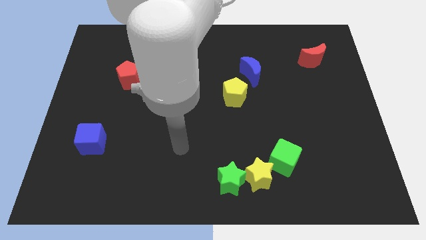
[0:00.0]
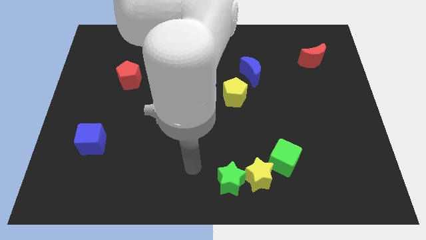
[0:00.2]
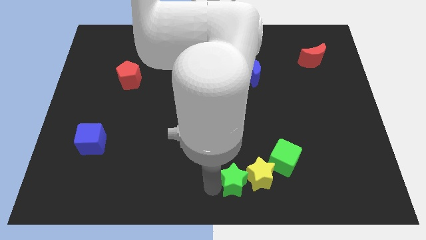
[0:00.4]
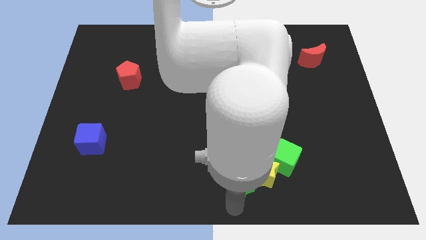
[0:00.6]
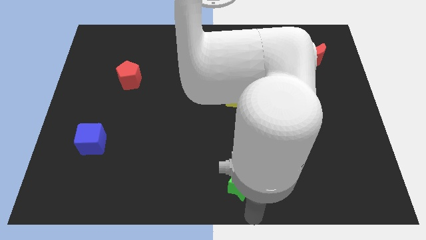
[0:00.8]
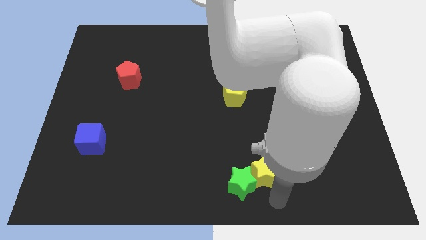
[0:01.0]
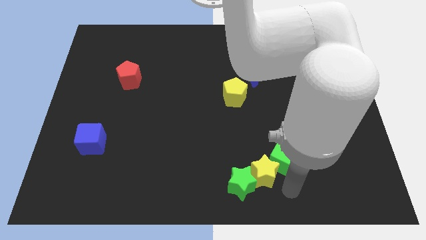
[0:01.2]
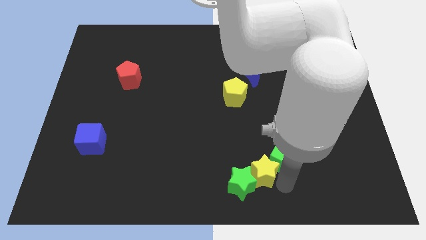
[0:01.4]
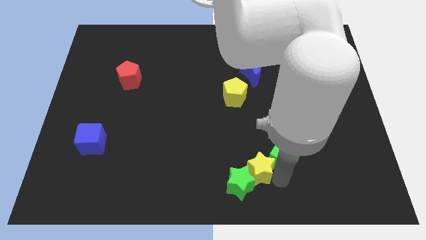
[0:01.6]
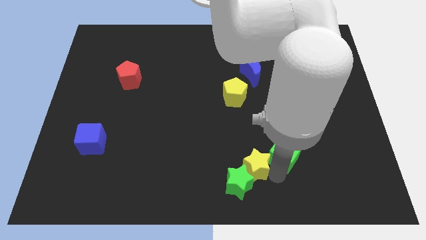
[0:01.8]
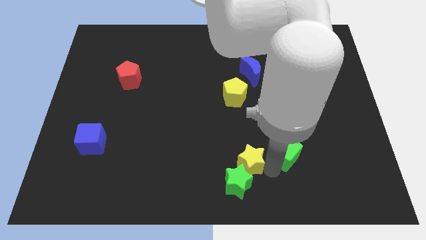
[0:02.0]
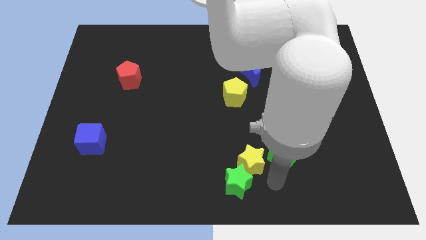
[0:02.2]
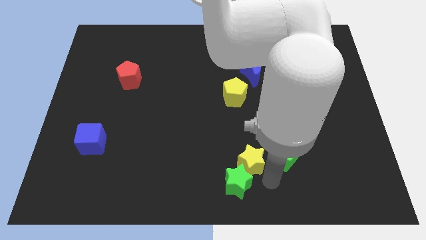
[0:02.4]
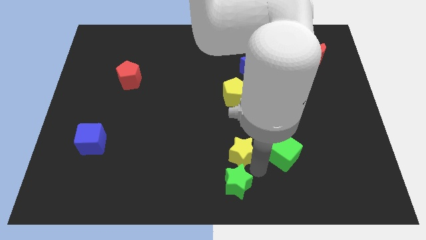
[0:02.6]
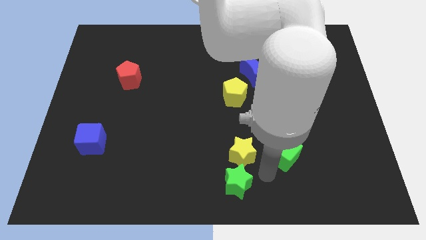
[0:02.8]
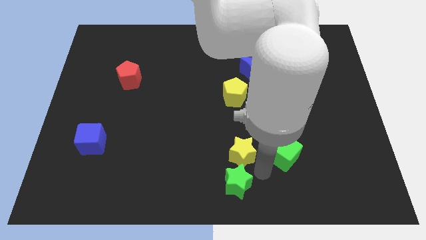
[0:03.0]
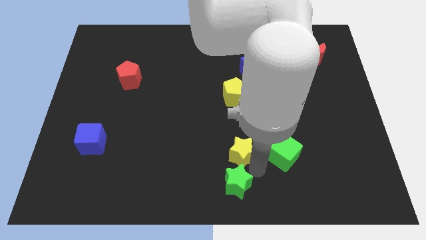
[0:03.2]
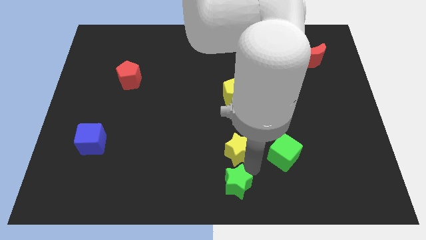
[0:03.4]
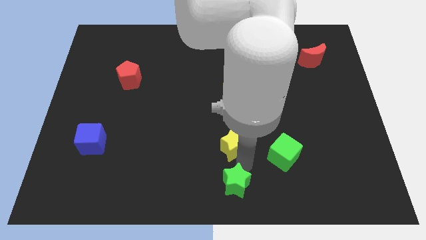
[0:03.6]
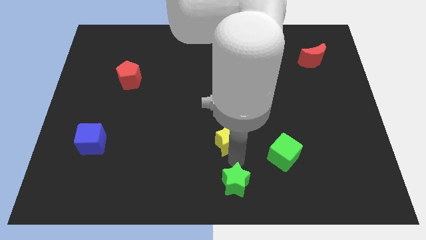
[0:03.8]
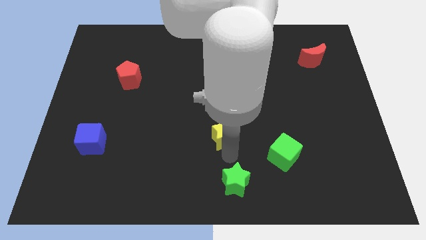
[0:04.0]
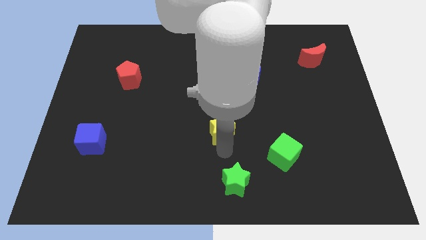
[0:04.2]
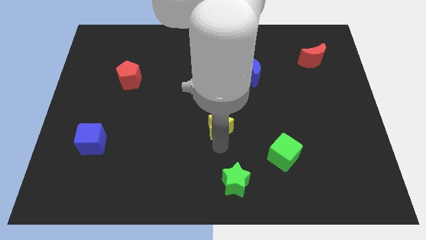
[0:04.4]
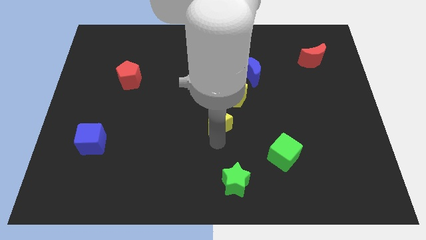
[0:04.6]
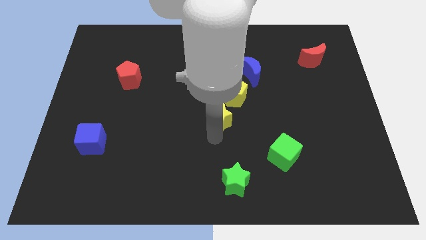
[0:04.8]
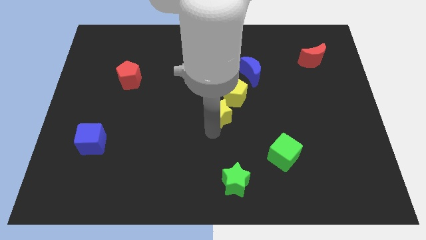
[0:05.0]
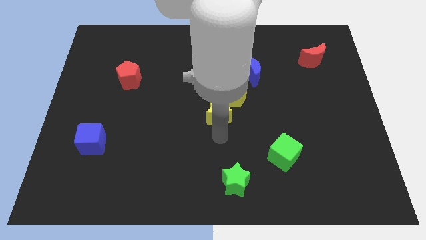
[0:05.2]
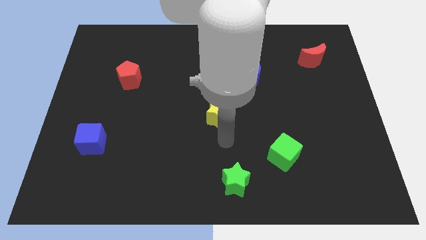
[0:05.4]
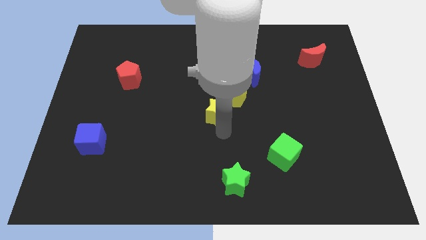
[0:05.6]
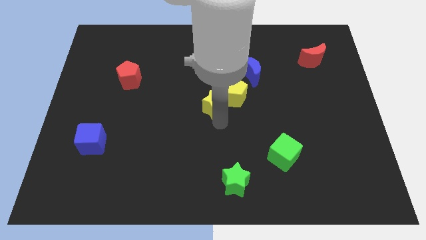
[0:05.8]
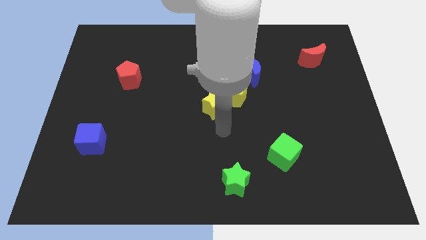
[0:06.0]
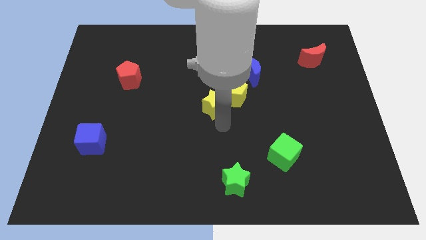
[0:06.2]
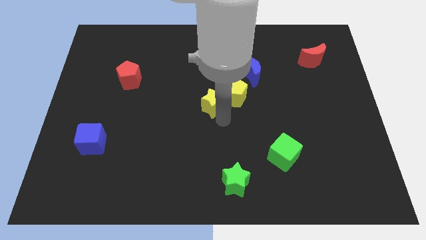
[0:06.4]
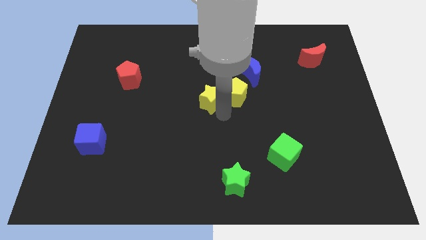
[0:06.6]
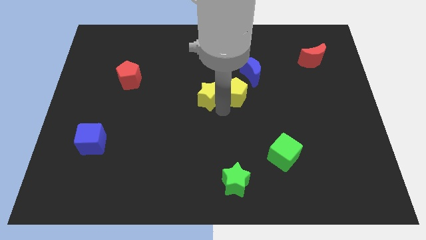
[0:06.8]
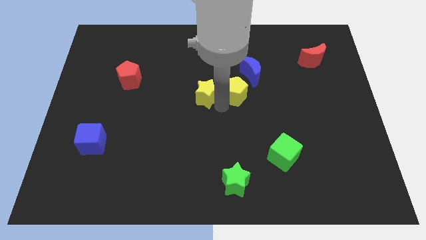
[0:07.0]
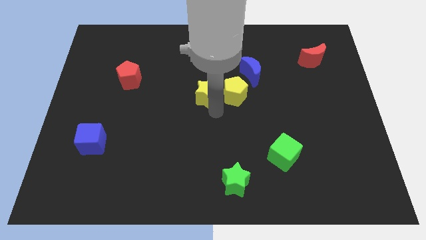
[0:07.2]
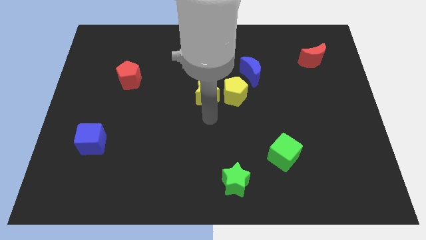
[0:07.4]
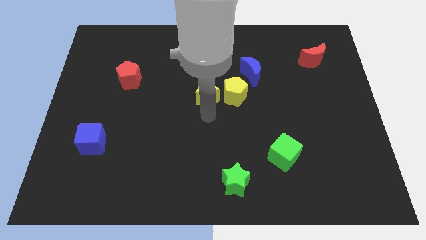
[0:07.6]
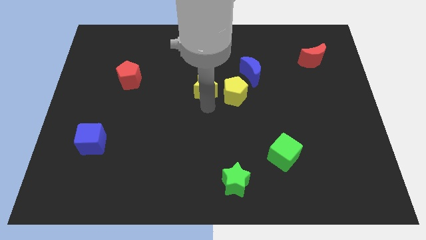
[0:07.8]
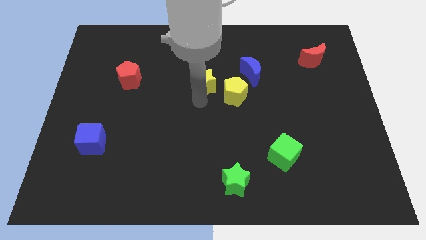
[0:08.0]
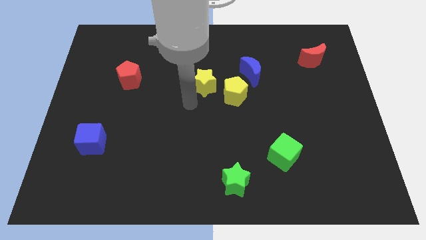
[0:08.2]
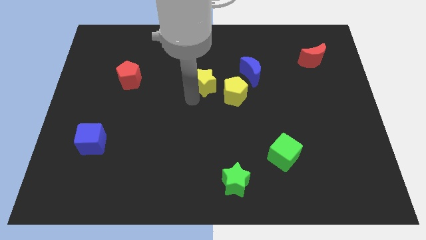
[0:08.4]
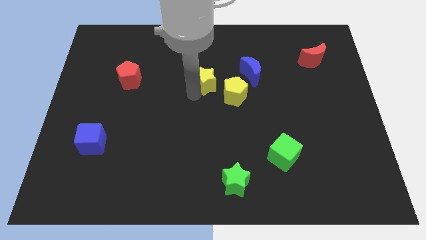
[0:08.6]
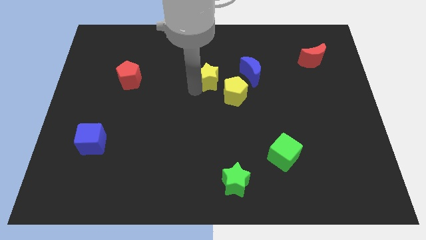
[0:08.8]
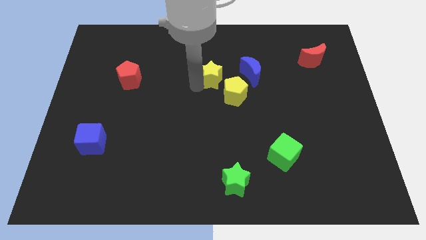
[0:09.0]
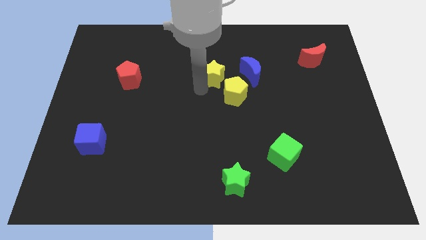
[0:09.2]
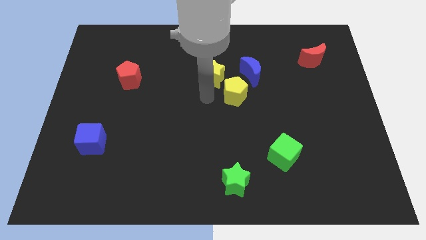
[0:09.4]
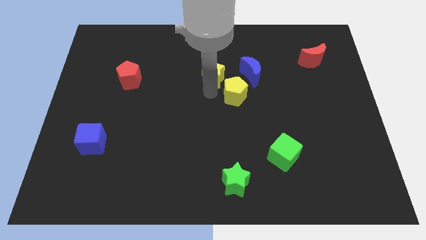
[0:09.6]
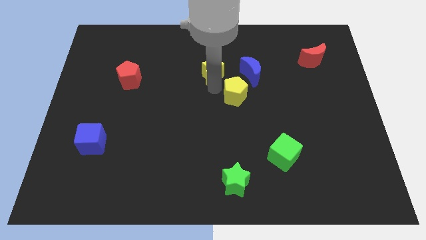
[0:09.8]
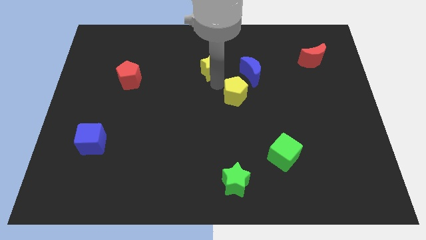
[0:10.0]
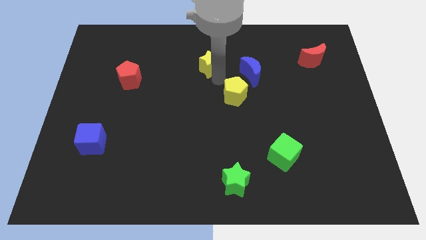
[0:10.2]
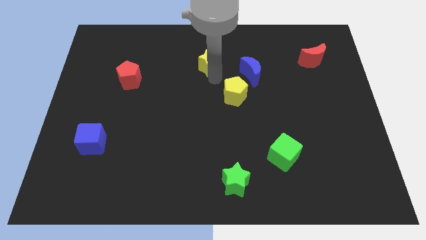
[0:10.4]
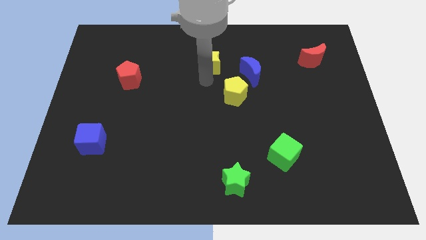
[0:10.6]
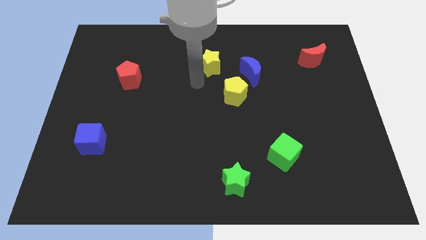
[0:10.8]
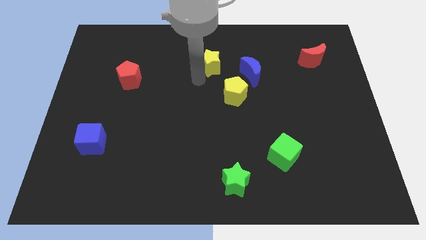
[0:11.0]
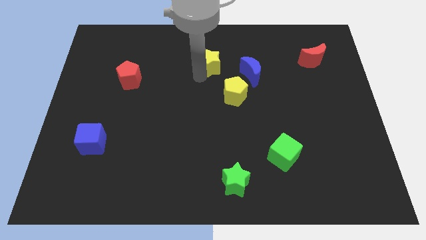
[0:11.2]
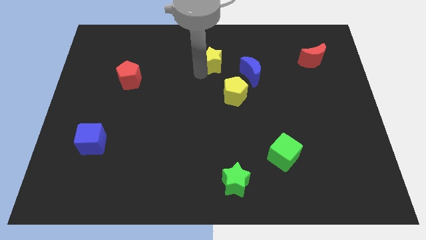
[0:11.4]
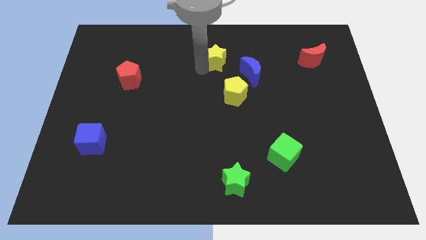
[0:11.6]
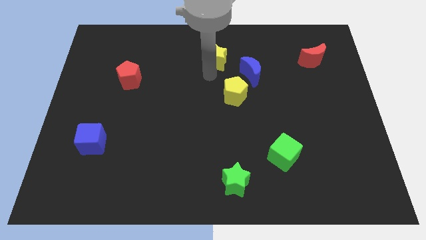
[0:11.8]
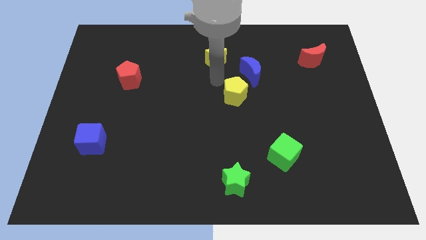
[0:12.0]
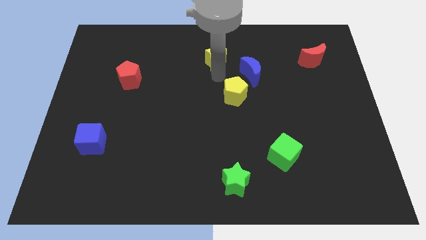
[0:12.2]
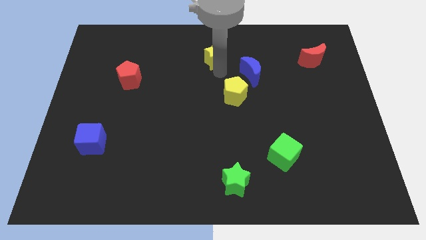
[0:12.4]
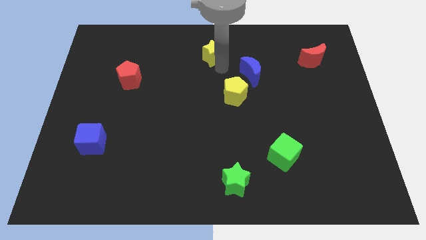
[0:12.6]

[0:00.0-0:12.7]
put the yellow star to the towards your base
